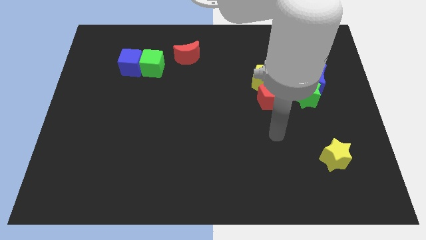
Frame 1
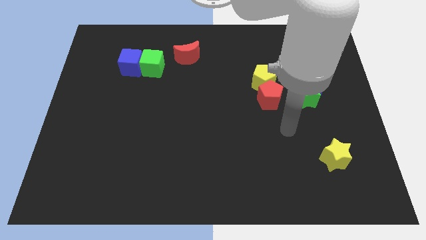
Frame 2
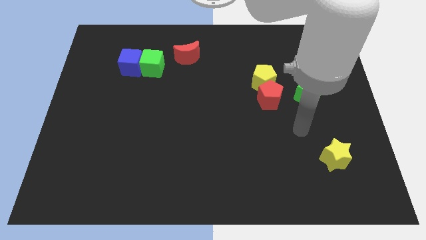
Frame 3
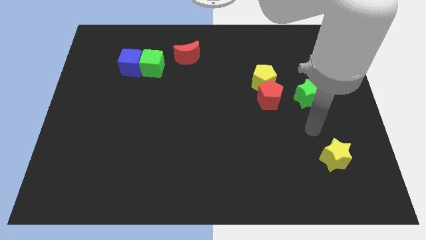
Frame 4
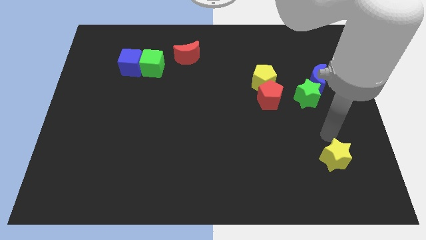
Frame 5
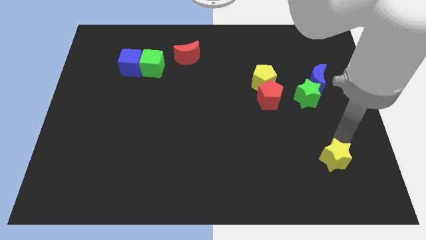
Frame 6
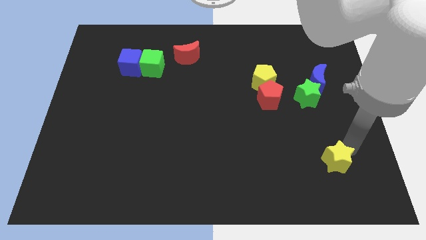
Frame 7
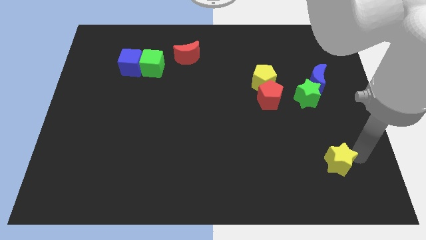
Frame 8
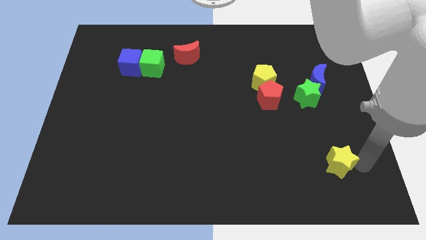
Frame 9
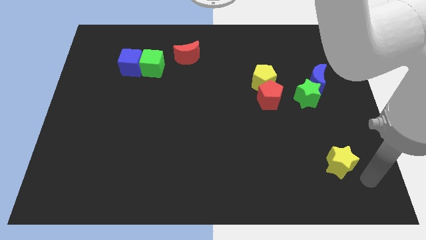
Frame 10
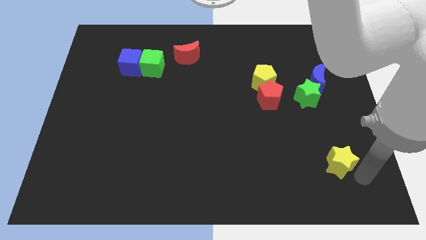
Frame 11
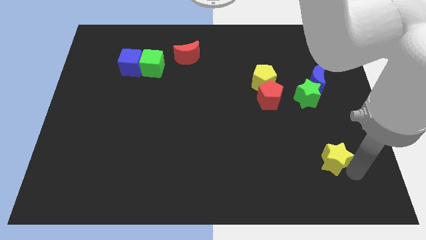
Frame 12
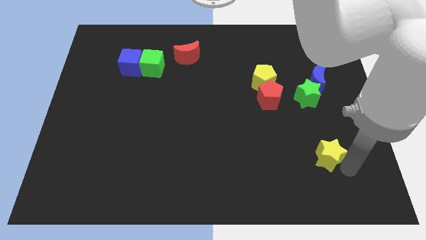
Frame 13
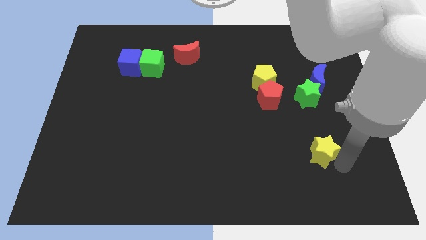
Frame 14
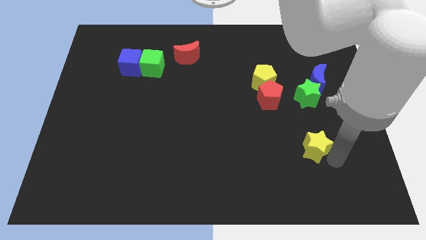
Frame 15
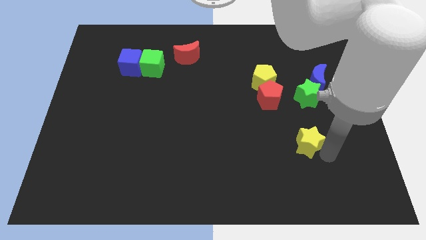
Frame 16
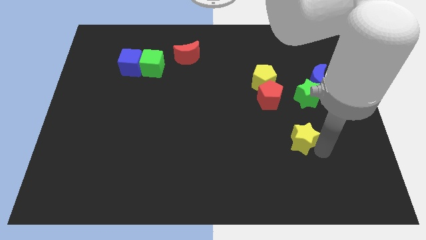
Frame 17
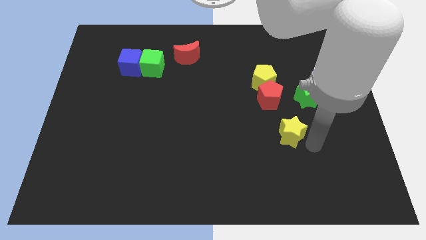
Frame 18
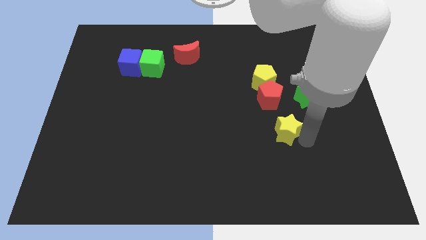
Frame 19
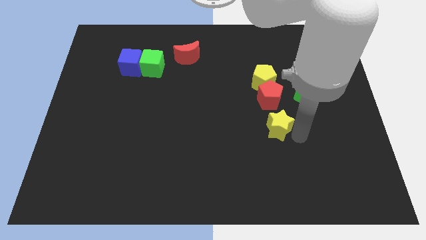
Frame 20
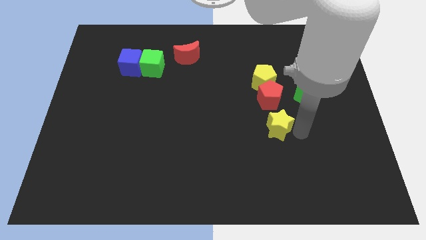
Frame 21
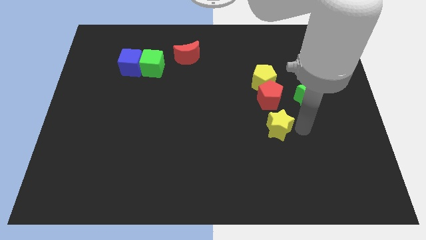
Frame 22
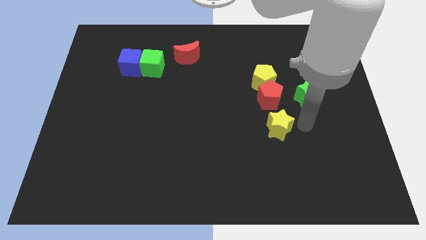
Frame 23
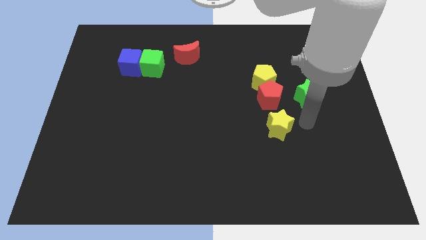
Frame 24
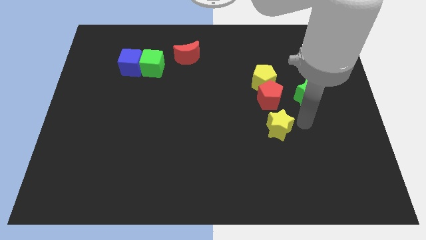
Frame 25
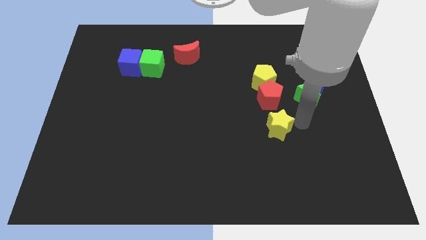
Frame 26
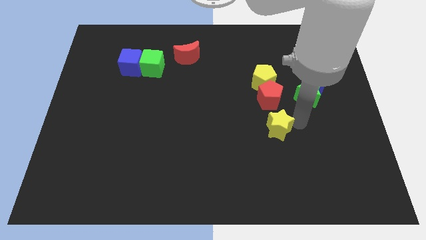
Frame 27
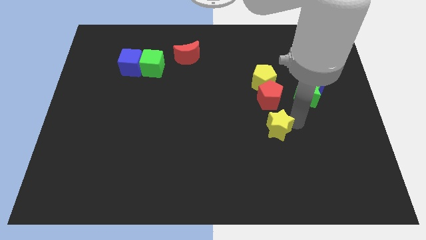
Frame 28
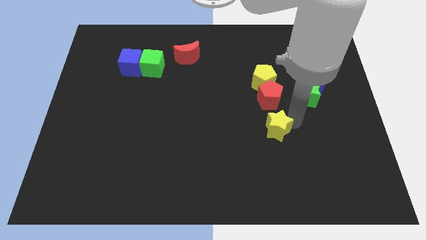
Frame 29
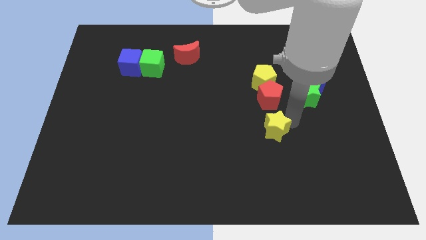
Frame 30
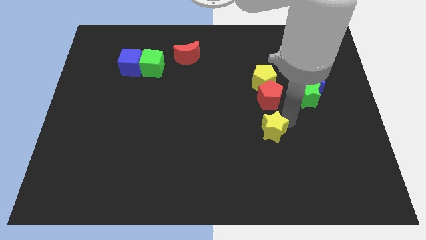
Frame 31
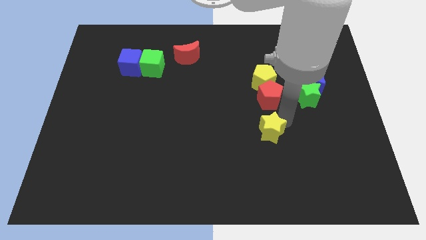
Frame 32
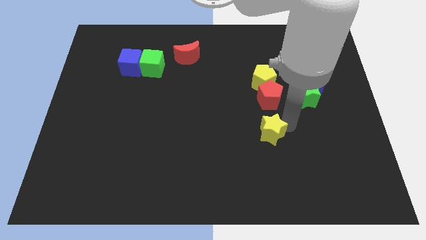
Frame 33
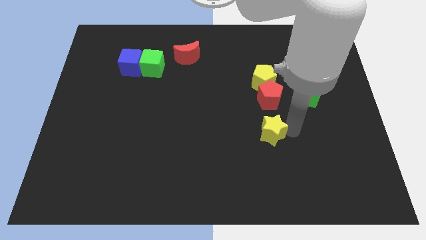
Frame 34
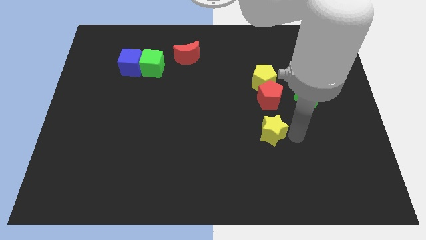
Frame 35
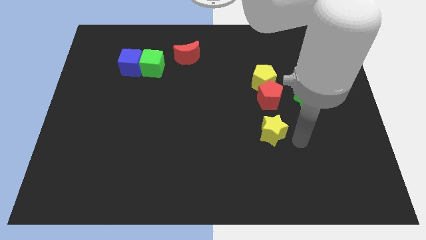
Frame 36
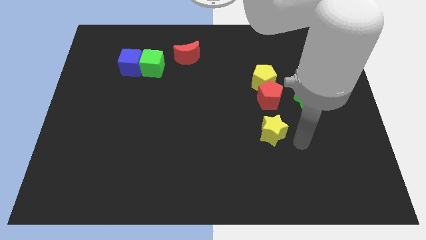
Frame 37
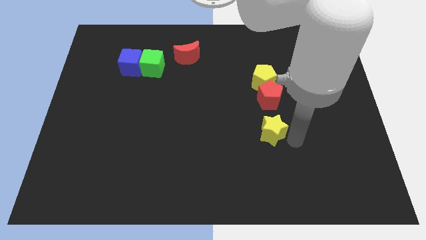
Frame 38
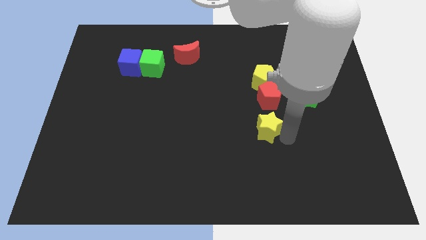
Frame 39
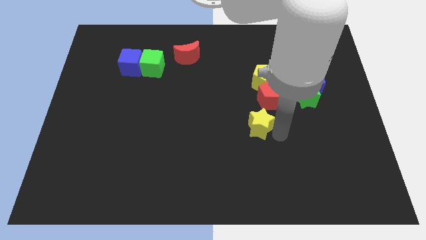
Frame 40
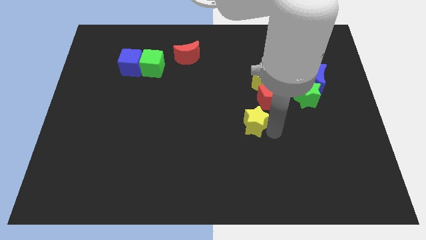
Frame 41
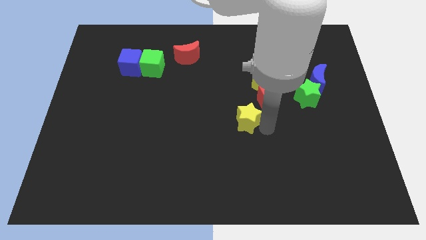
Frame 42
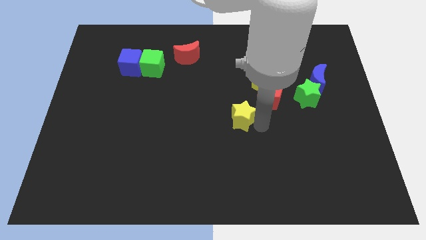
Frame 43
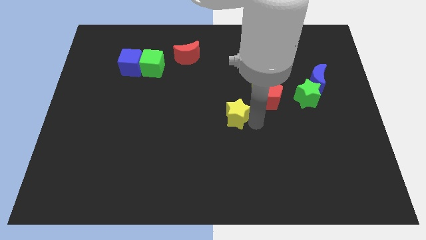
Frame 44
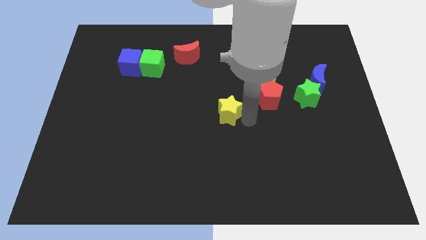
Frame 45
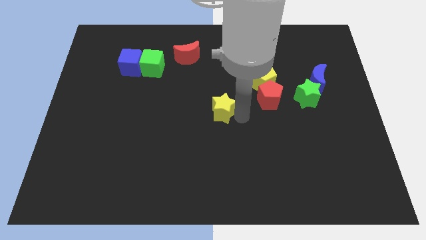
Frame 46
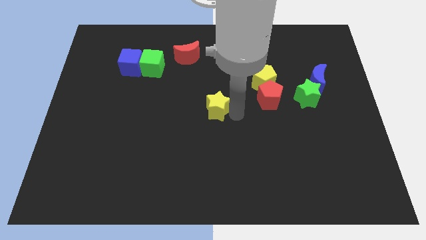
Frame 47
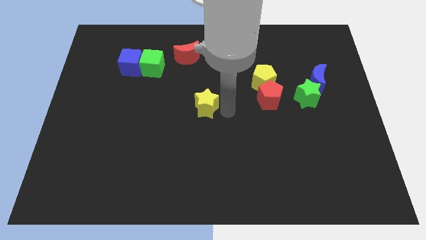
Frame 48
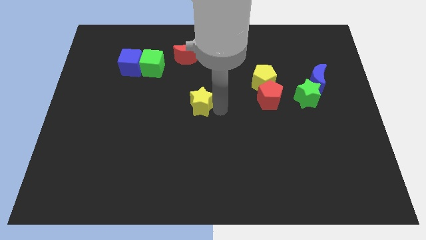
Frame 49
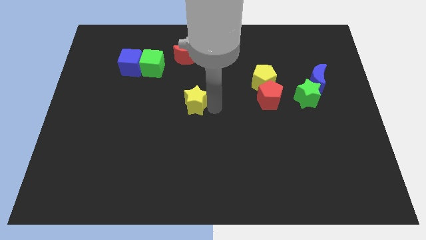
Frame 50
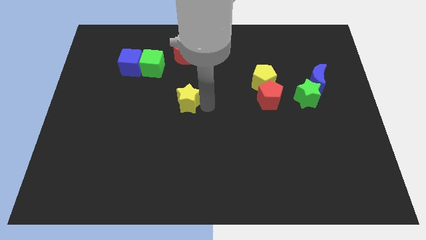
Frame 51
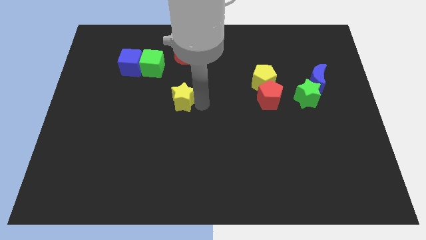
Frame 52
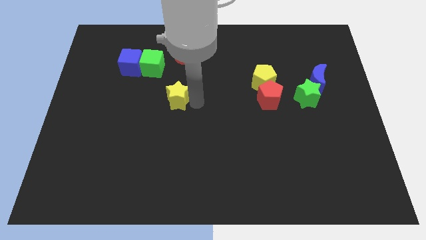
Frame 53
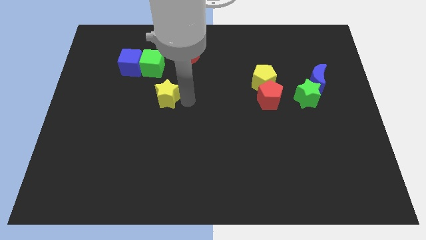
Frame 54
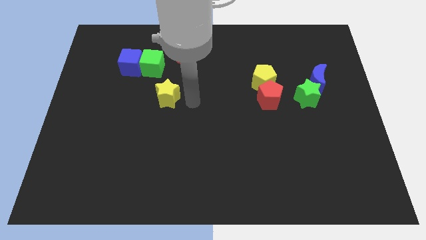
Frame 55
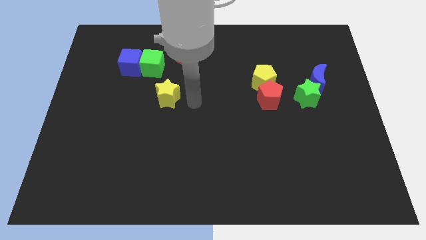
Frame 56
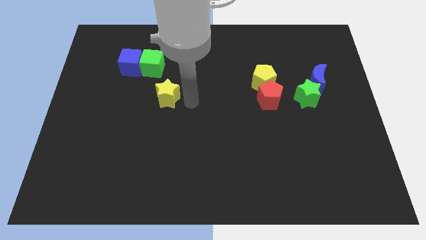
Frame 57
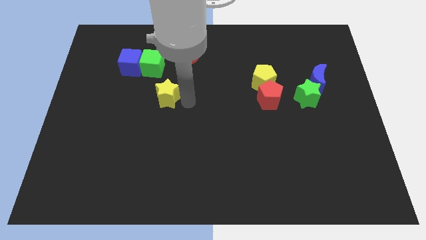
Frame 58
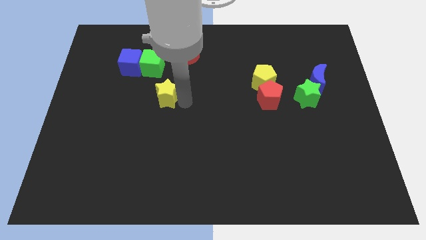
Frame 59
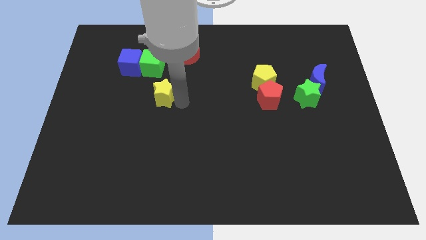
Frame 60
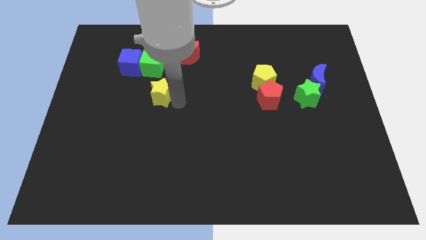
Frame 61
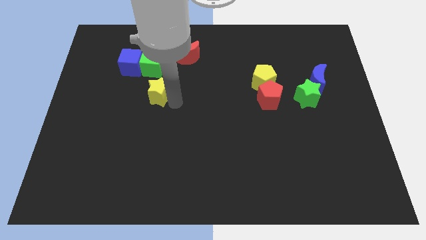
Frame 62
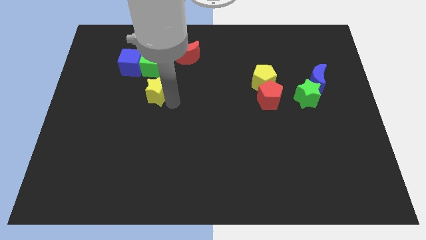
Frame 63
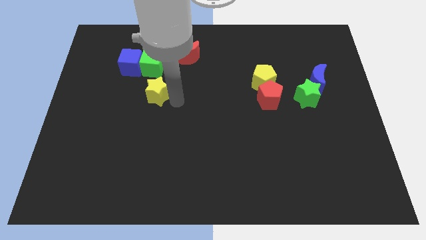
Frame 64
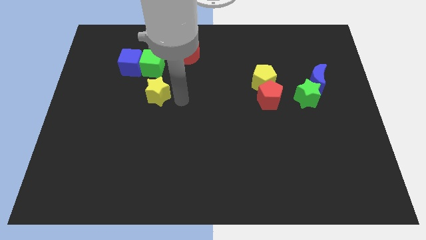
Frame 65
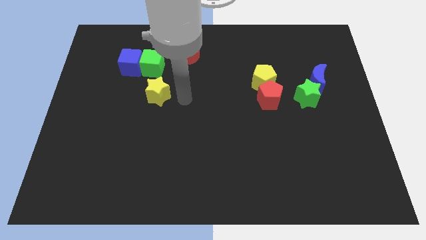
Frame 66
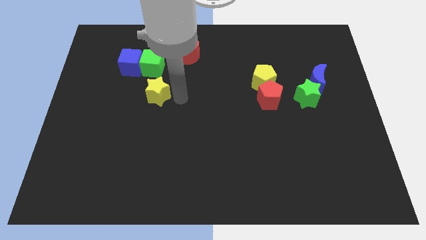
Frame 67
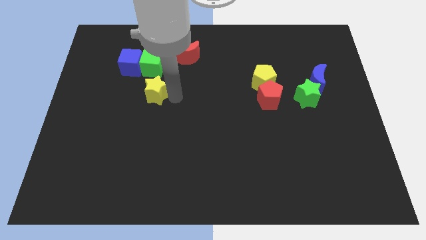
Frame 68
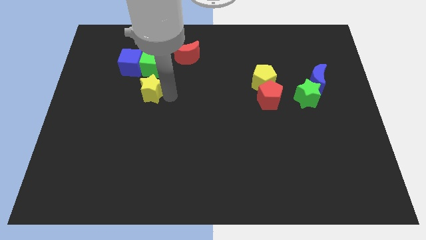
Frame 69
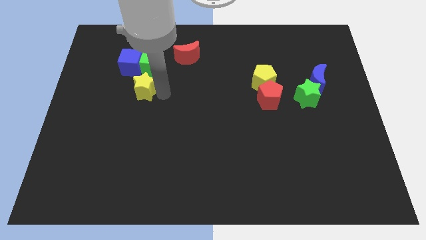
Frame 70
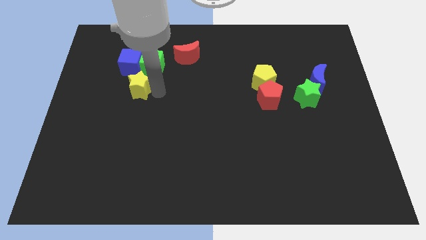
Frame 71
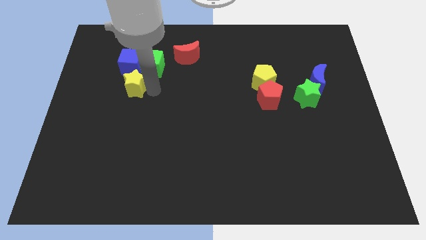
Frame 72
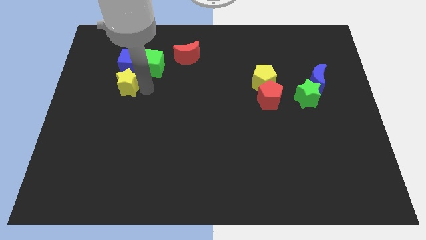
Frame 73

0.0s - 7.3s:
put the yellow star to the bottom left of the blue cube
